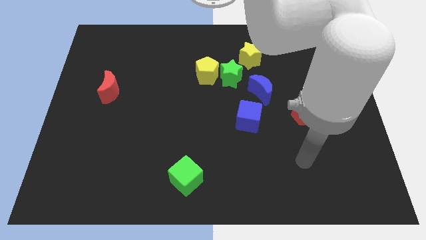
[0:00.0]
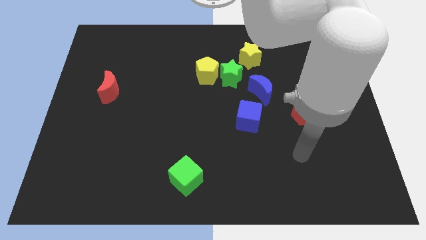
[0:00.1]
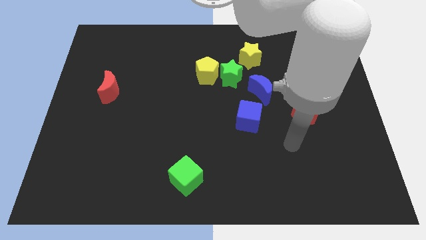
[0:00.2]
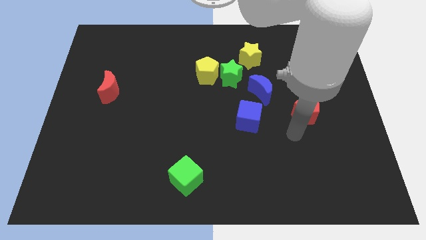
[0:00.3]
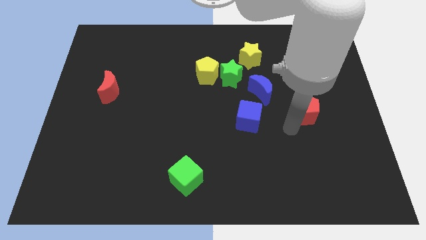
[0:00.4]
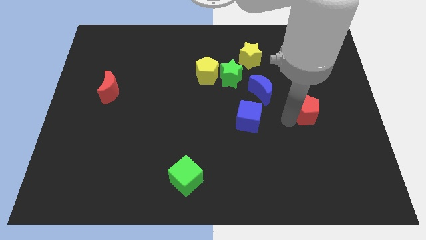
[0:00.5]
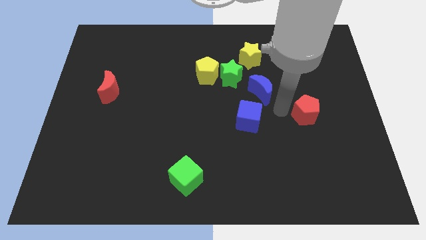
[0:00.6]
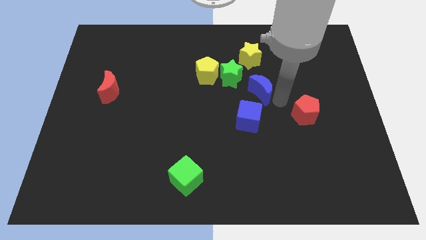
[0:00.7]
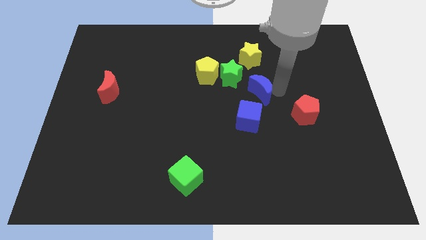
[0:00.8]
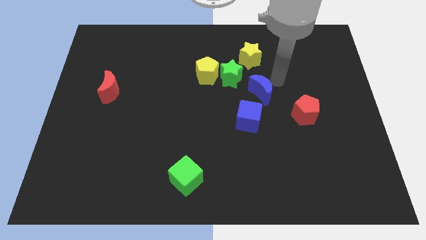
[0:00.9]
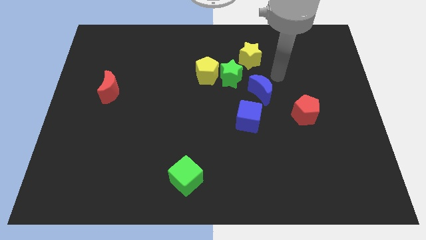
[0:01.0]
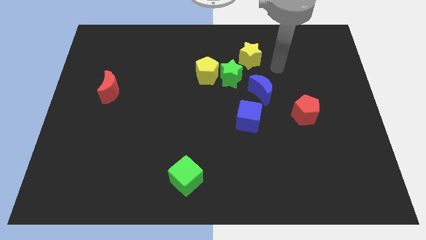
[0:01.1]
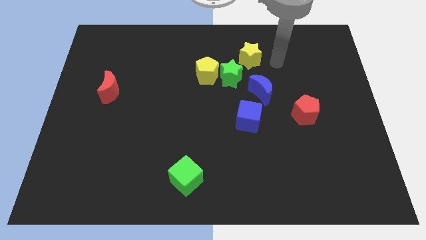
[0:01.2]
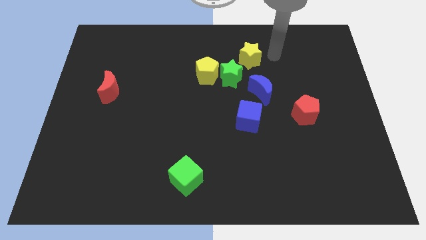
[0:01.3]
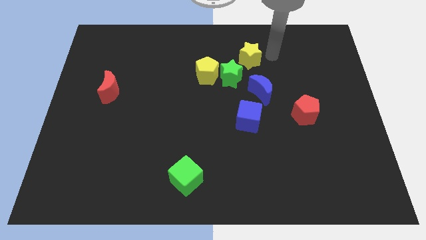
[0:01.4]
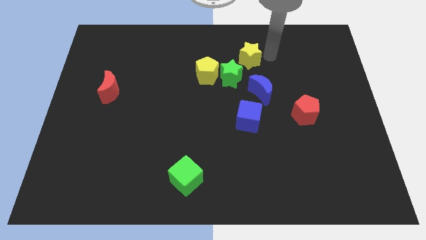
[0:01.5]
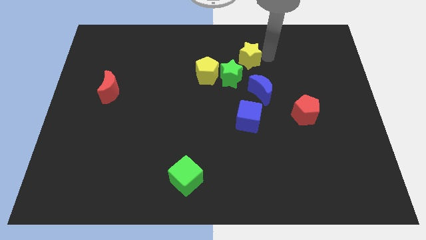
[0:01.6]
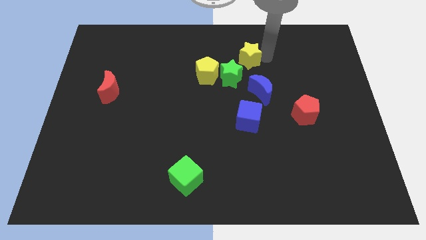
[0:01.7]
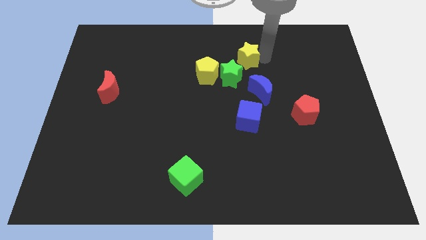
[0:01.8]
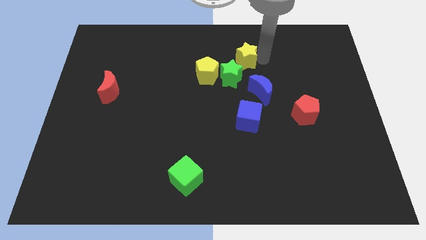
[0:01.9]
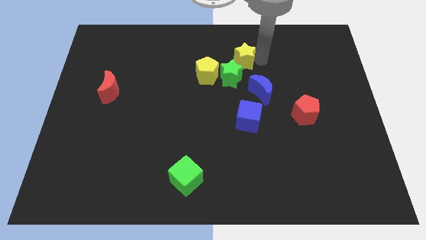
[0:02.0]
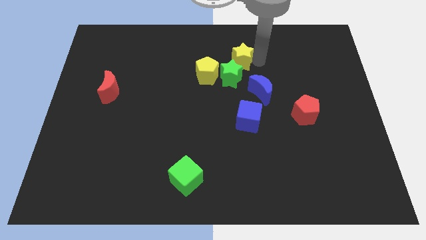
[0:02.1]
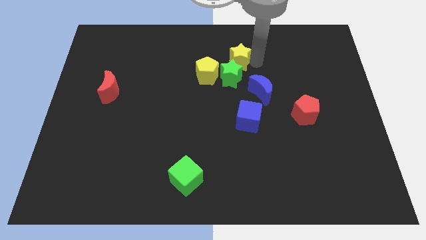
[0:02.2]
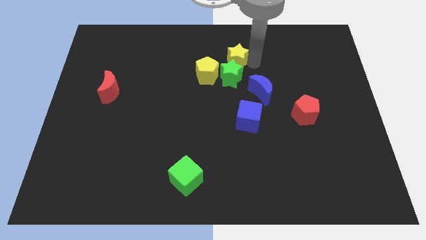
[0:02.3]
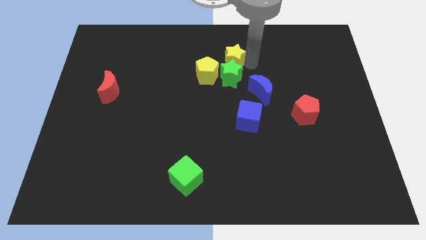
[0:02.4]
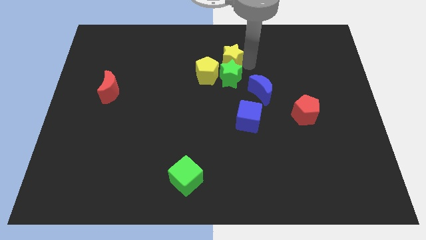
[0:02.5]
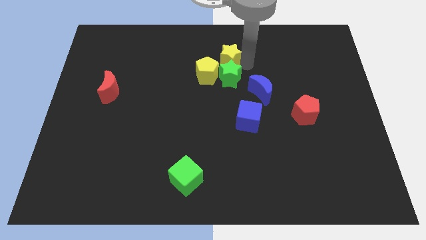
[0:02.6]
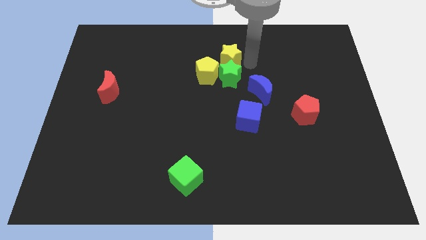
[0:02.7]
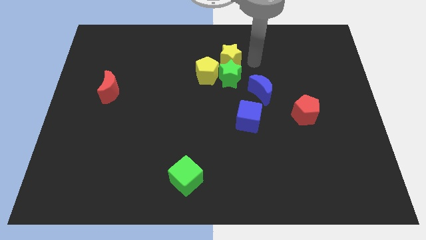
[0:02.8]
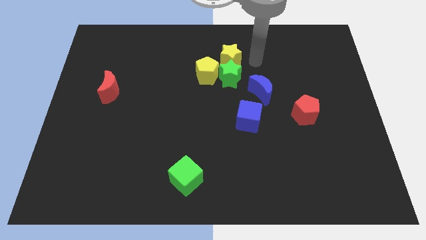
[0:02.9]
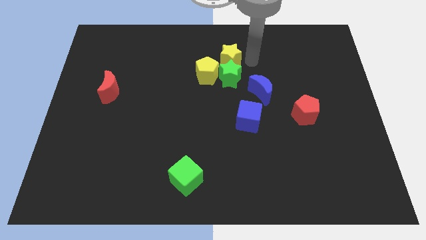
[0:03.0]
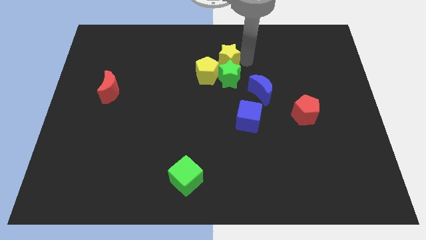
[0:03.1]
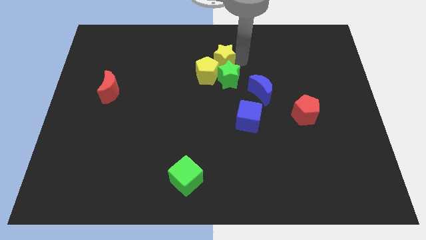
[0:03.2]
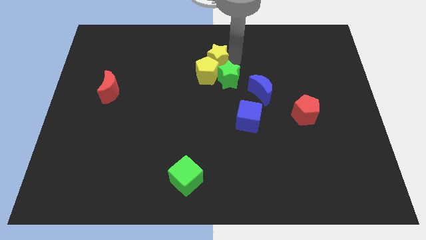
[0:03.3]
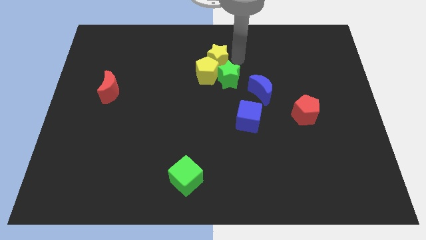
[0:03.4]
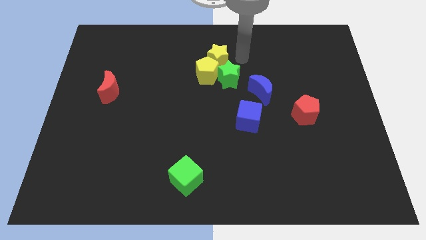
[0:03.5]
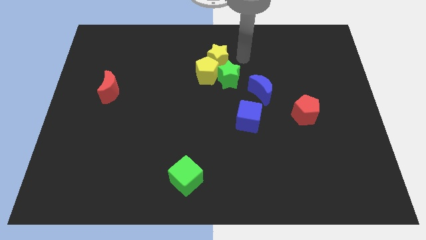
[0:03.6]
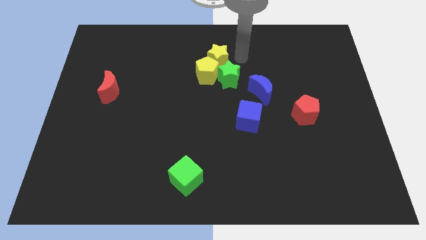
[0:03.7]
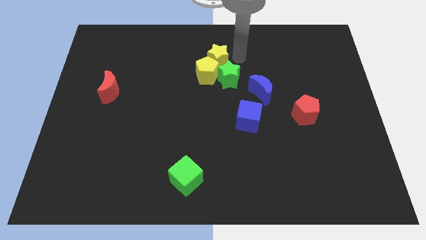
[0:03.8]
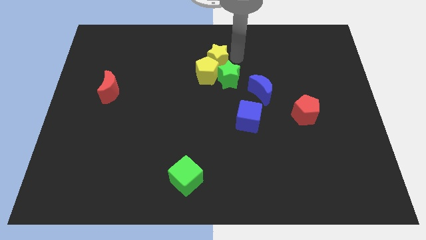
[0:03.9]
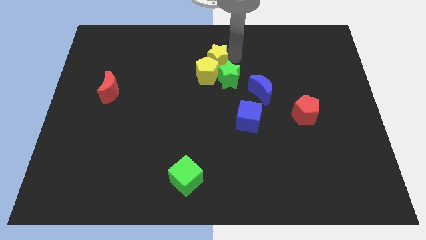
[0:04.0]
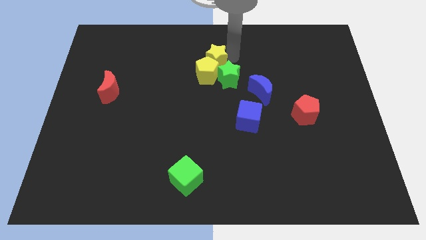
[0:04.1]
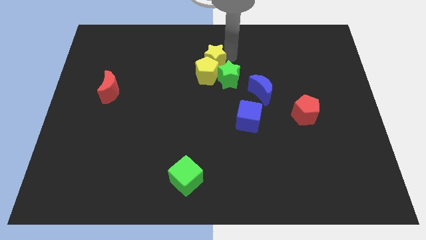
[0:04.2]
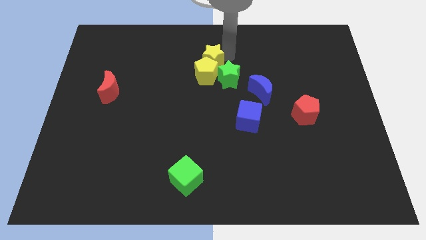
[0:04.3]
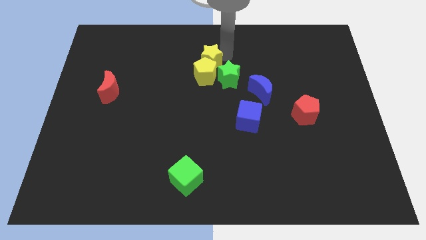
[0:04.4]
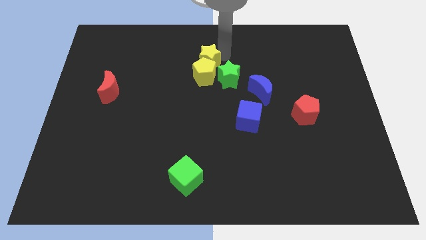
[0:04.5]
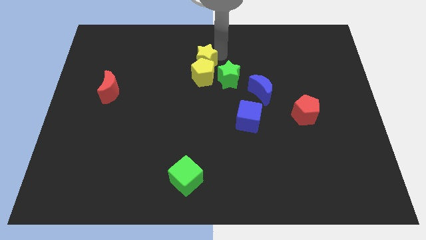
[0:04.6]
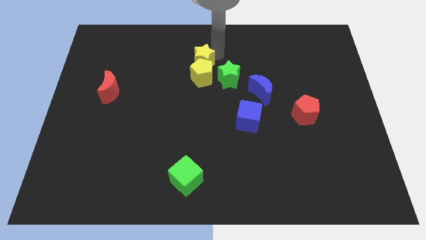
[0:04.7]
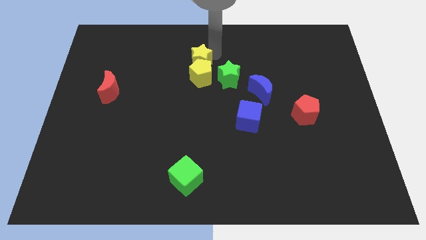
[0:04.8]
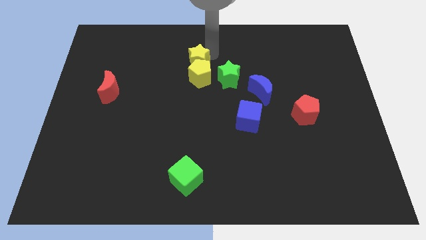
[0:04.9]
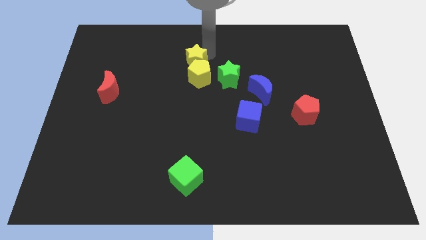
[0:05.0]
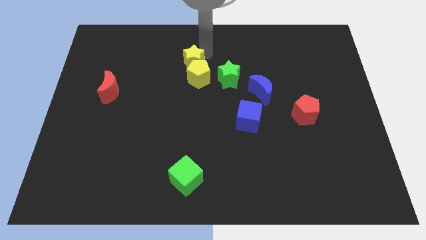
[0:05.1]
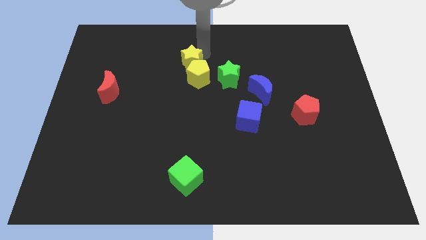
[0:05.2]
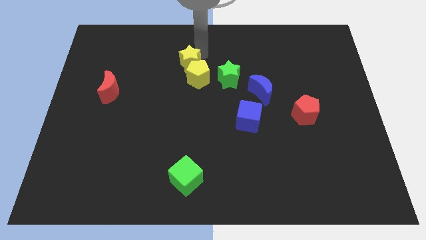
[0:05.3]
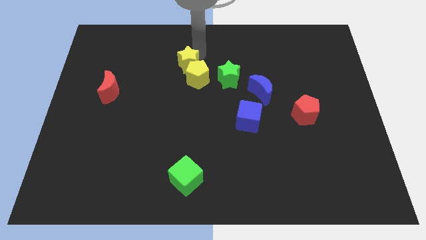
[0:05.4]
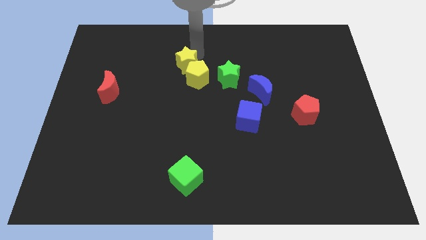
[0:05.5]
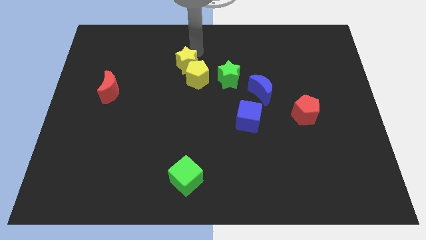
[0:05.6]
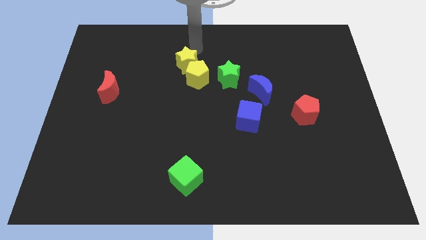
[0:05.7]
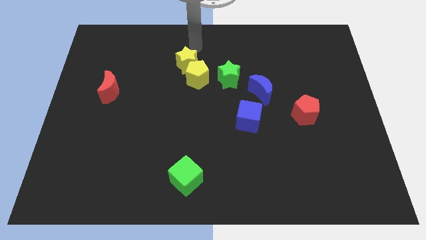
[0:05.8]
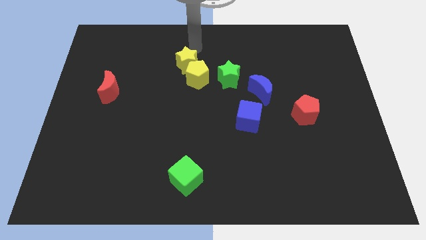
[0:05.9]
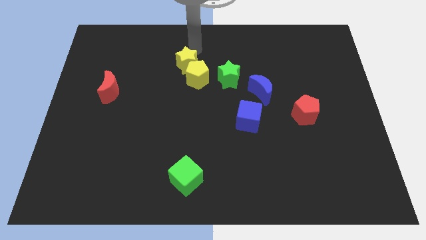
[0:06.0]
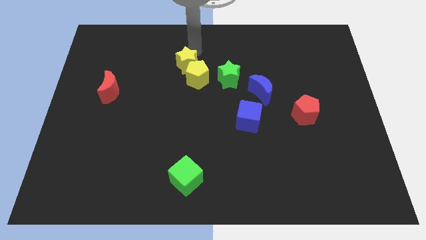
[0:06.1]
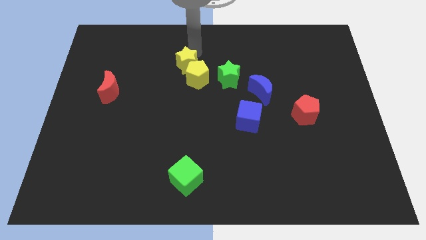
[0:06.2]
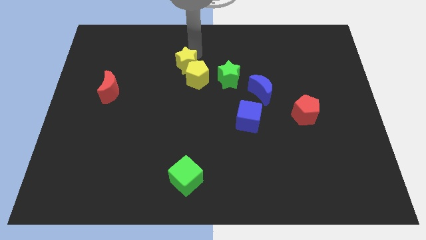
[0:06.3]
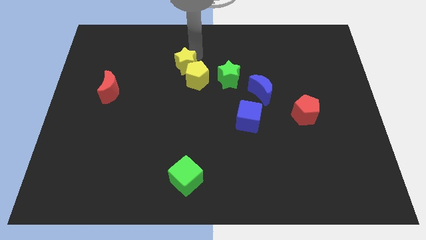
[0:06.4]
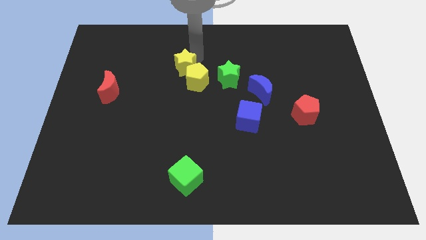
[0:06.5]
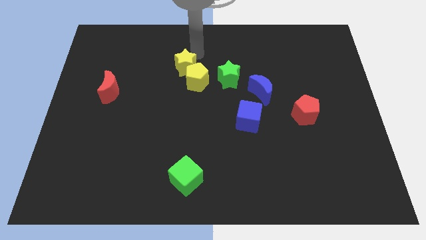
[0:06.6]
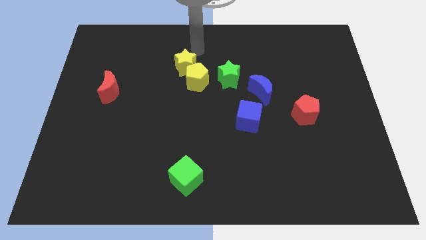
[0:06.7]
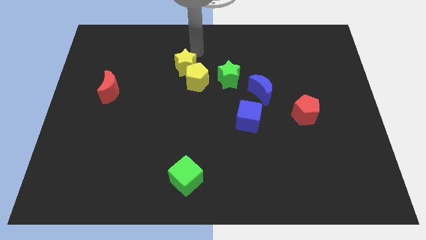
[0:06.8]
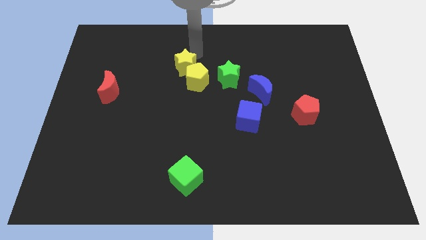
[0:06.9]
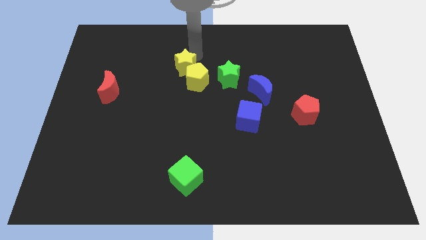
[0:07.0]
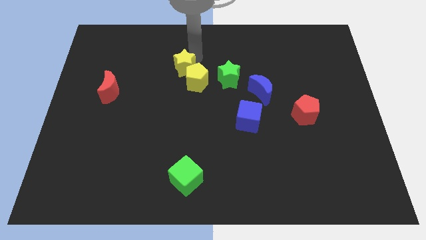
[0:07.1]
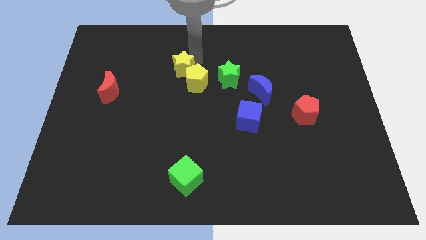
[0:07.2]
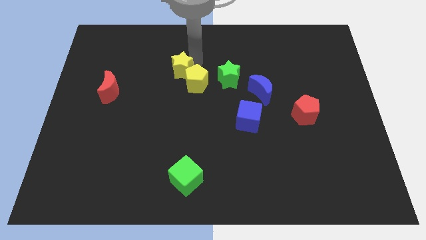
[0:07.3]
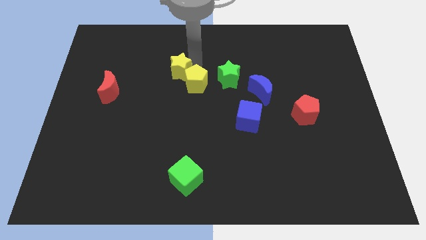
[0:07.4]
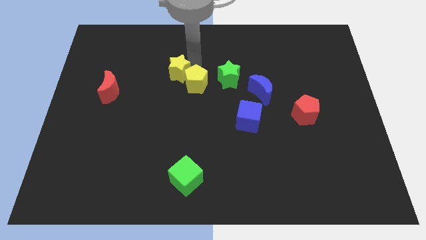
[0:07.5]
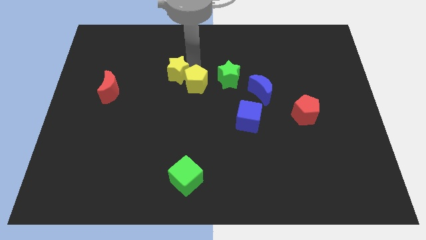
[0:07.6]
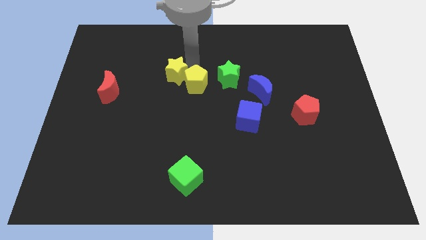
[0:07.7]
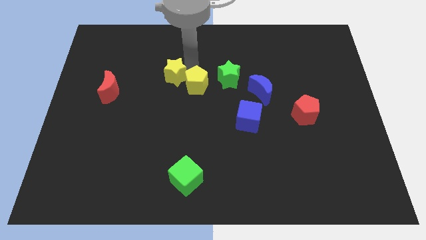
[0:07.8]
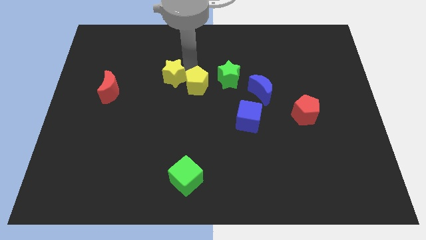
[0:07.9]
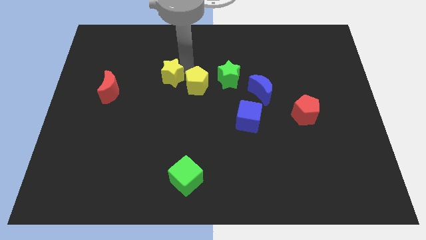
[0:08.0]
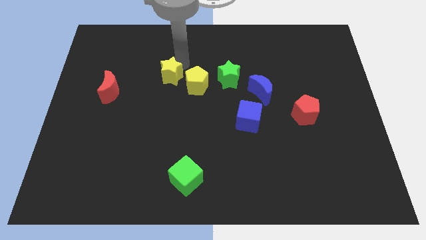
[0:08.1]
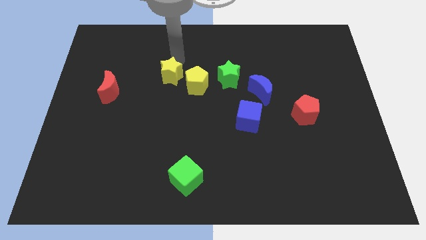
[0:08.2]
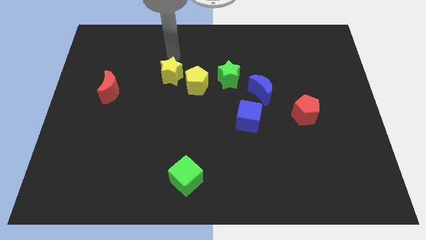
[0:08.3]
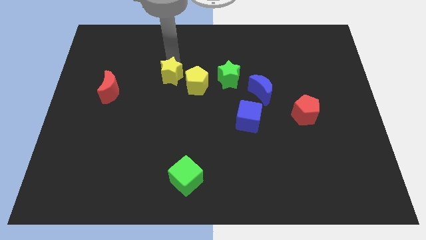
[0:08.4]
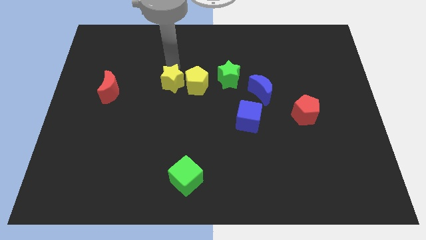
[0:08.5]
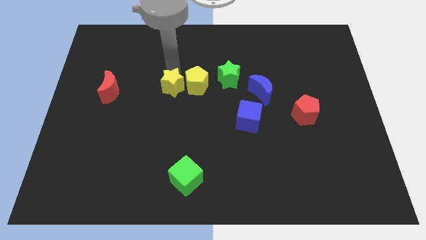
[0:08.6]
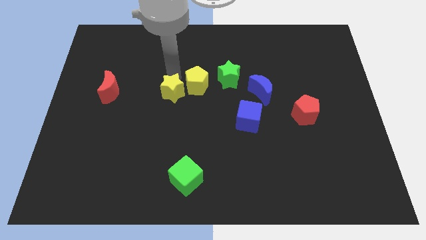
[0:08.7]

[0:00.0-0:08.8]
move the yellow star downwards and left
